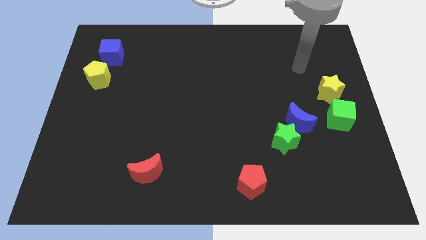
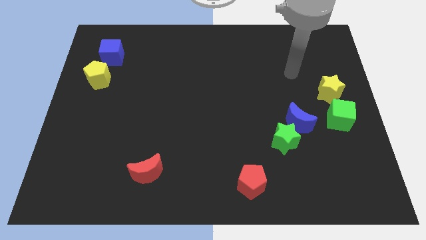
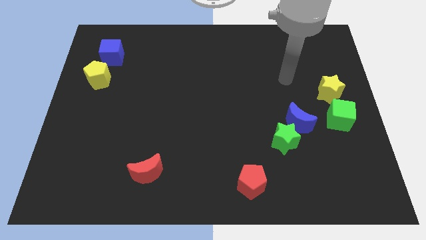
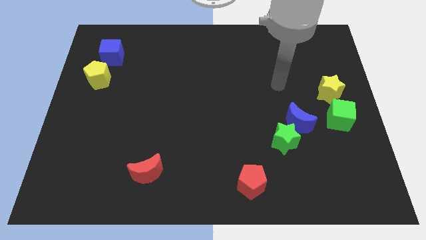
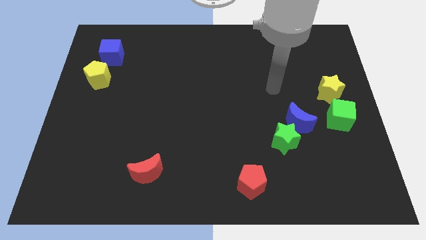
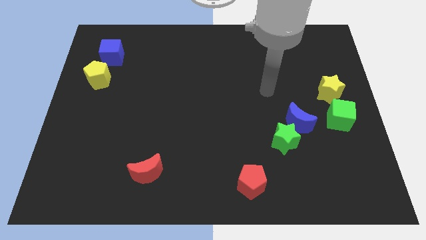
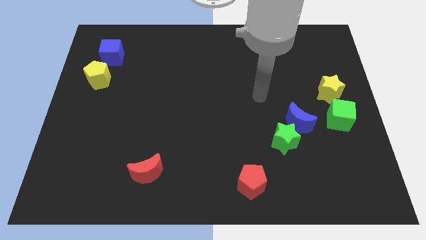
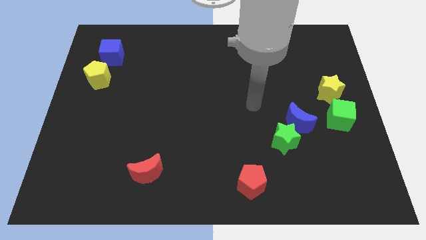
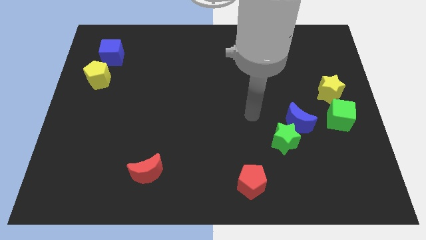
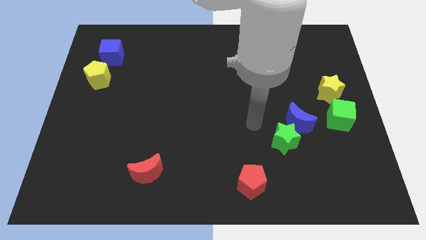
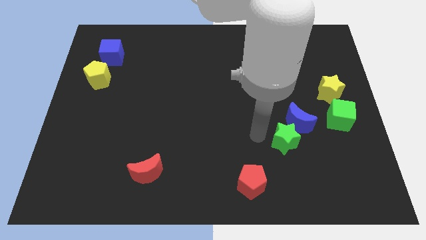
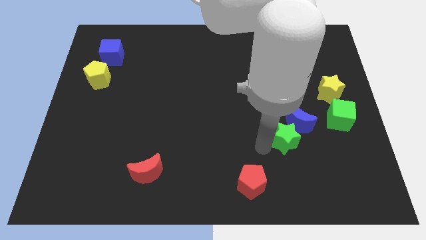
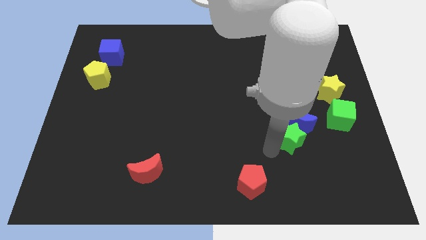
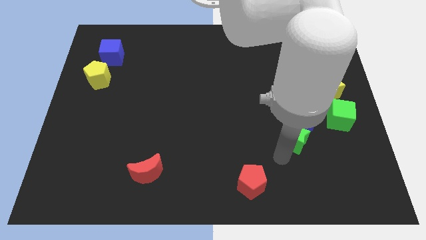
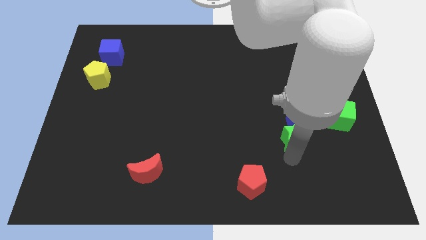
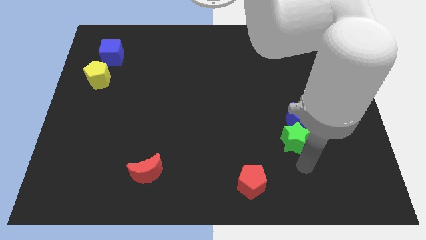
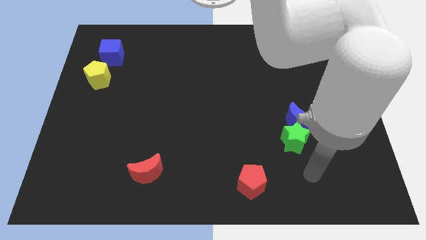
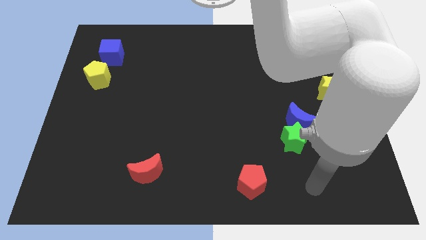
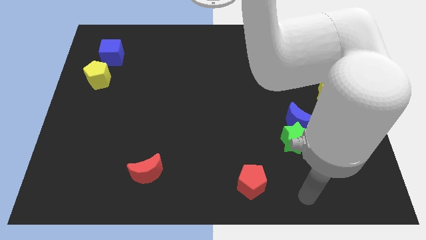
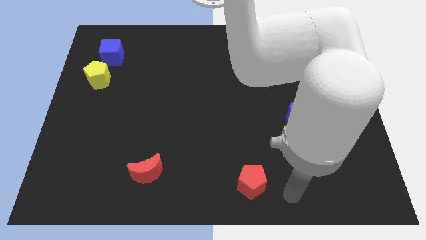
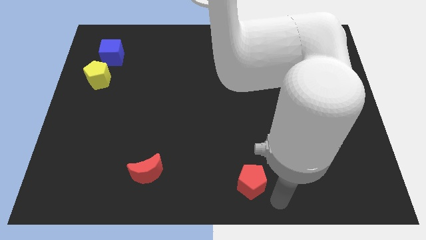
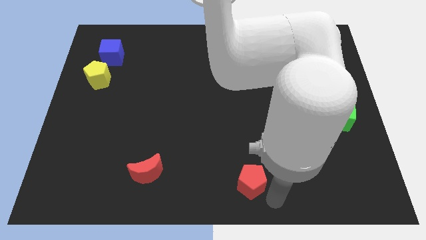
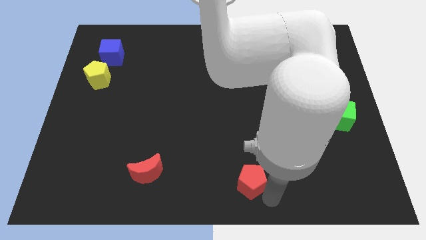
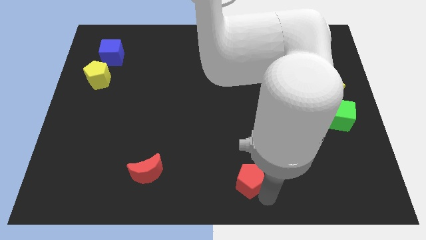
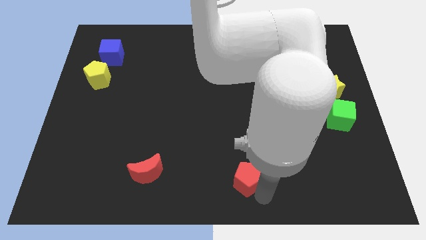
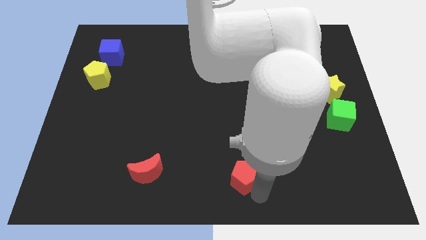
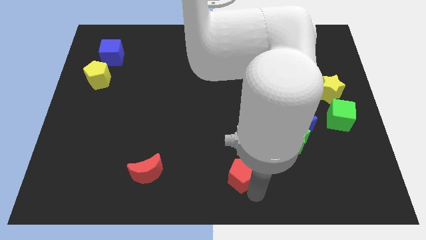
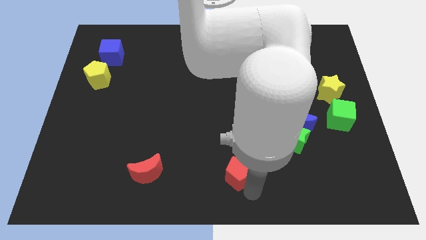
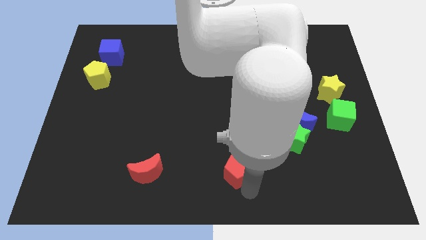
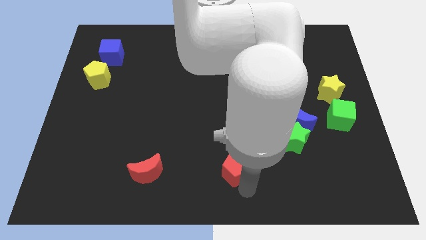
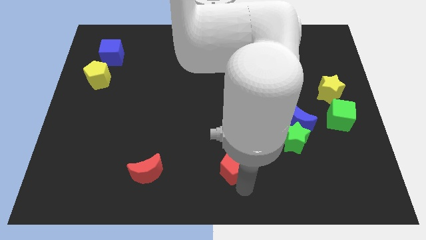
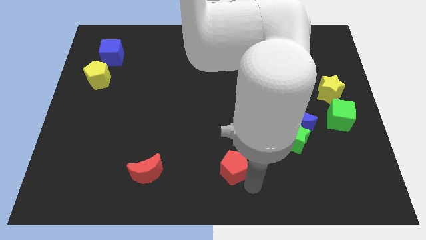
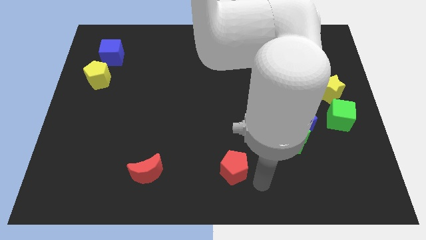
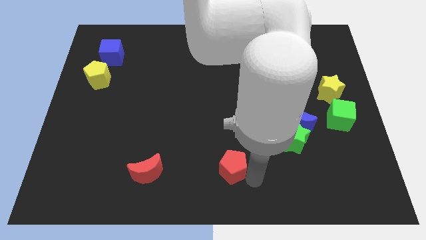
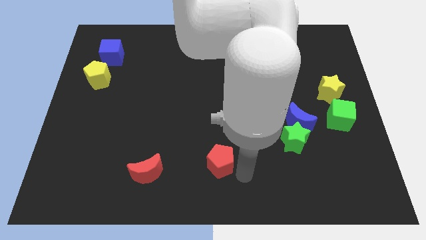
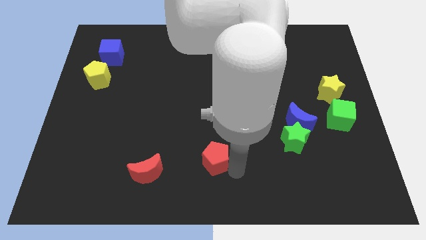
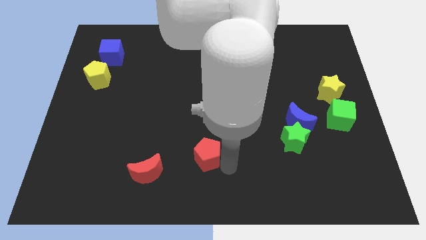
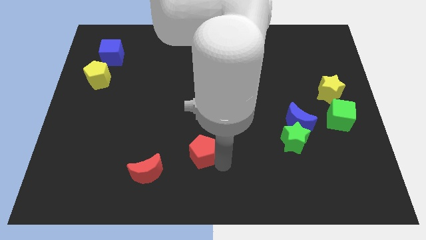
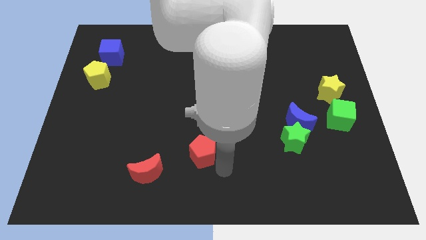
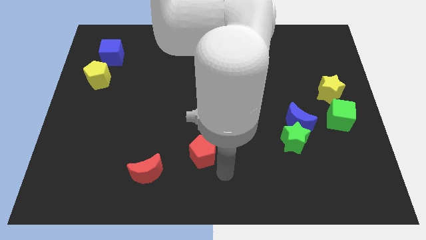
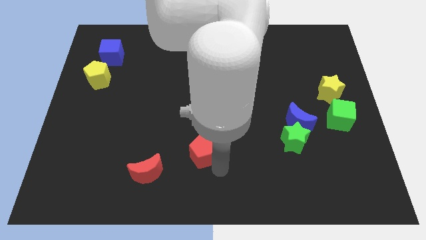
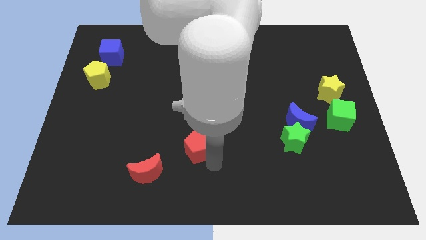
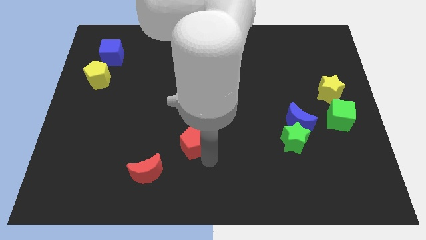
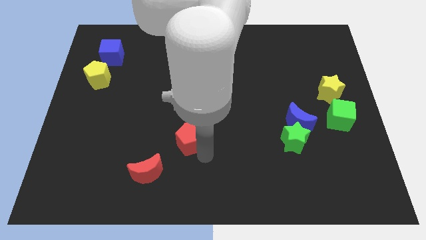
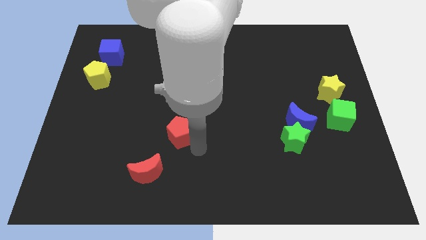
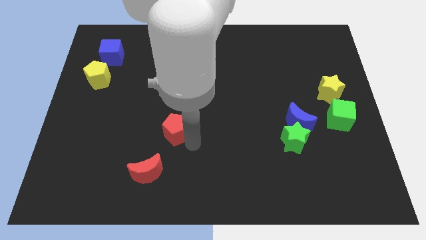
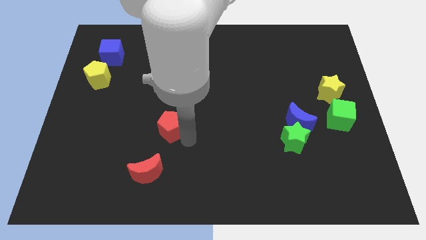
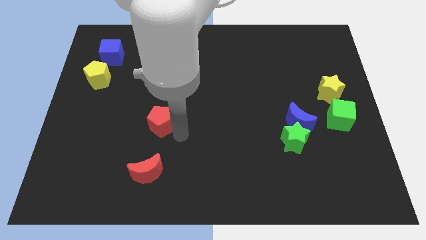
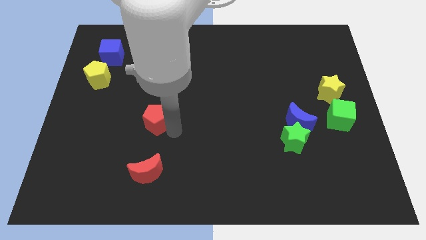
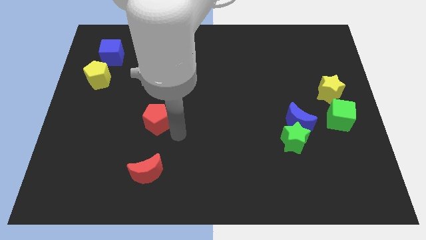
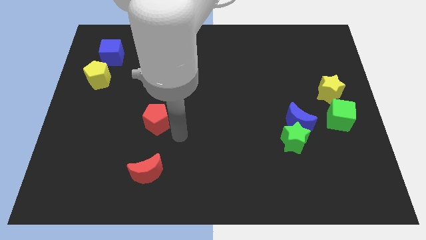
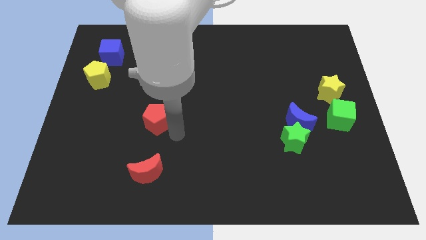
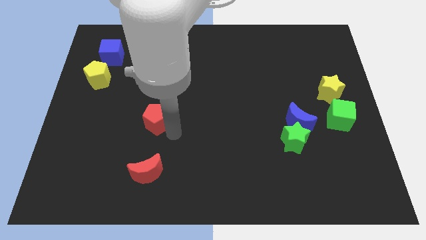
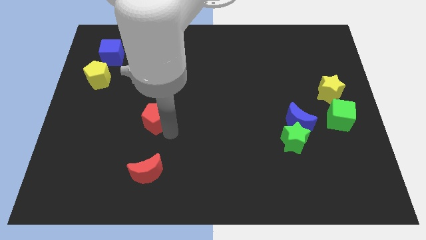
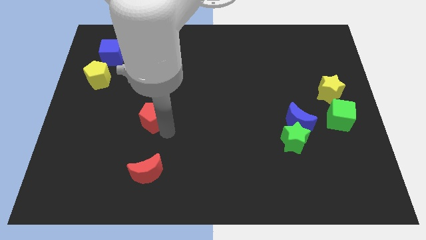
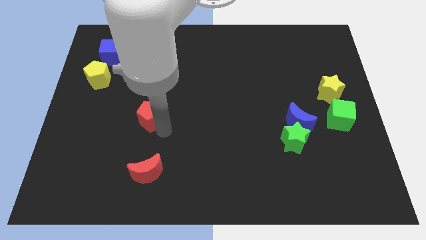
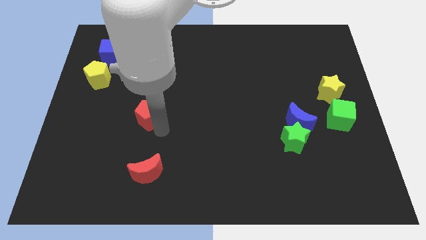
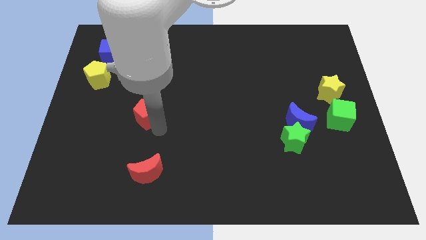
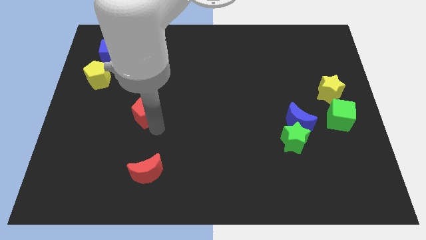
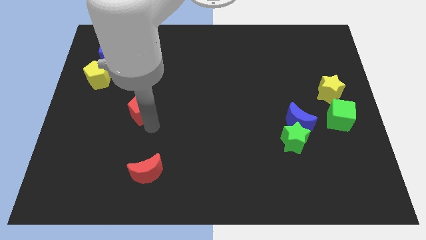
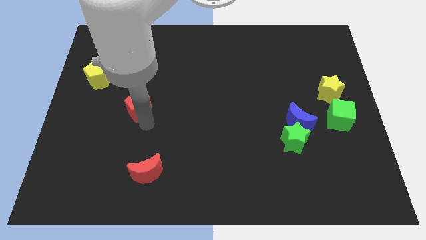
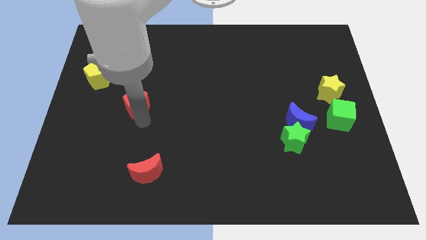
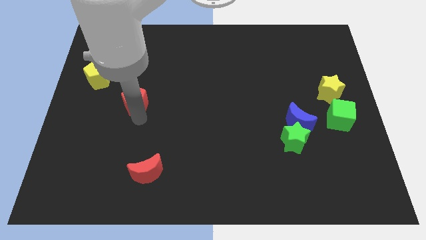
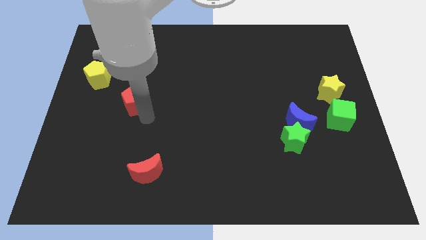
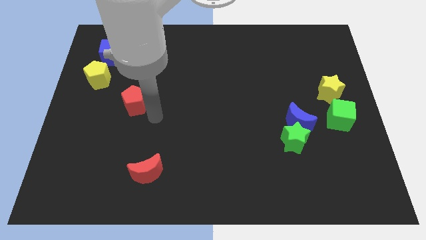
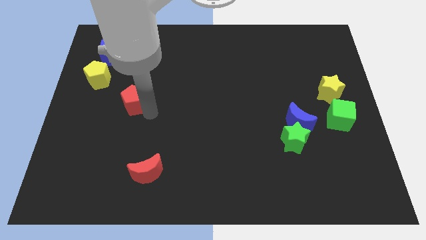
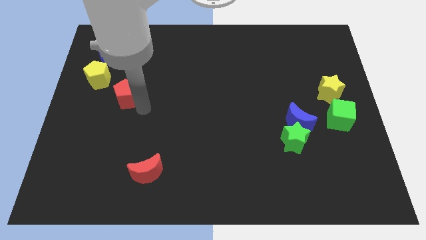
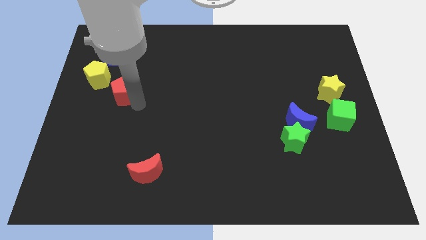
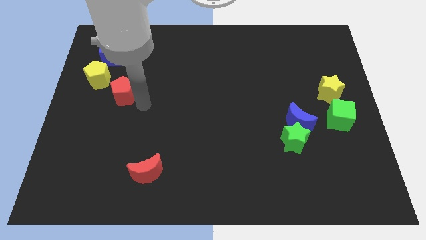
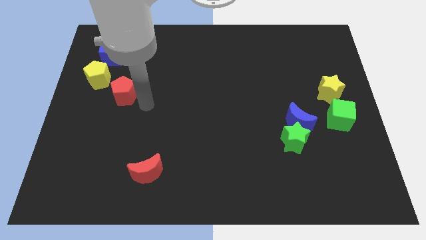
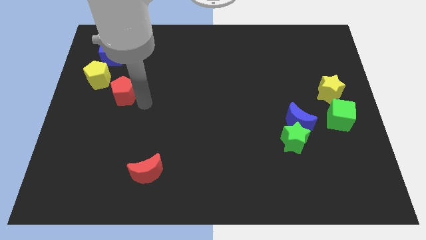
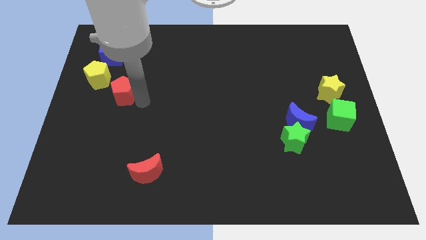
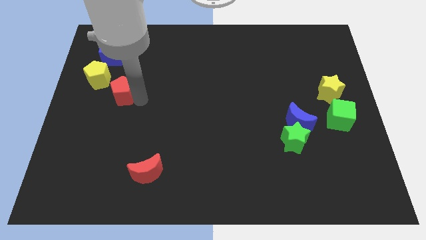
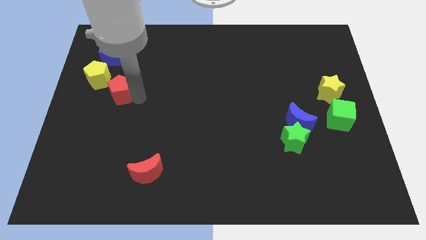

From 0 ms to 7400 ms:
put the red pentagon below the blue cube
